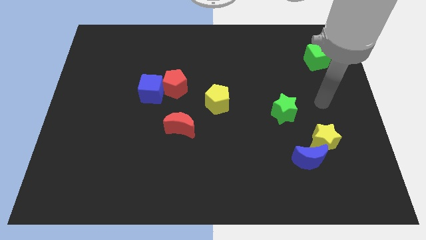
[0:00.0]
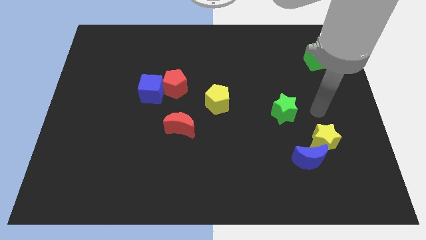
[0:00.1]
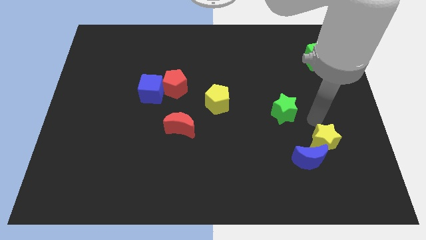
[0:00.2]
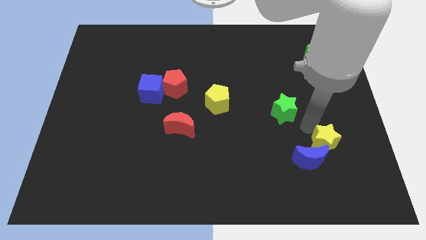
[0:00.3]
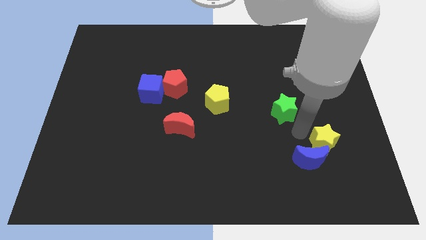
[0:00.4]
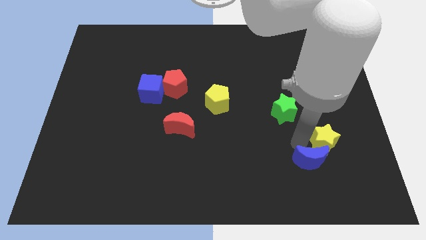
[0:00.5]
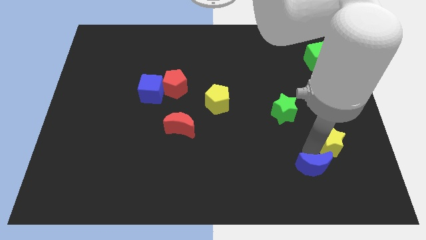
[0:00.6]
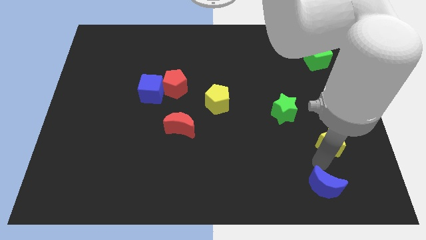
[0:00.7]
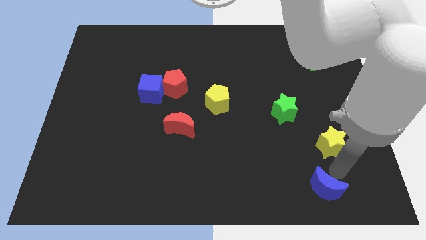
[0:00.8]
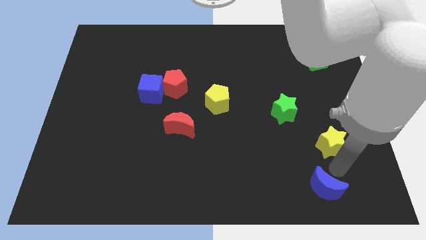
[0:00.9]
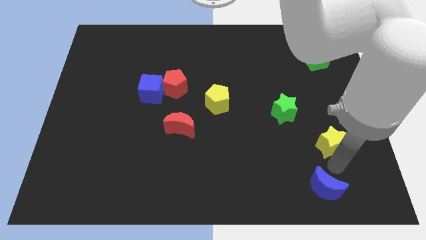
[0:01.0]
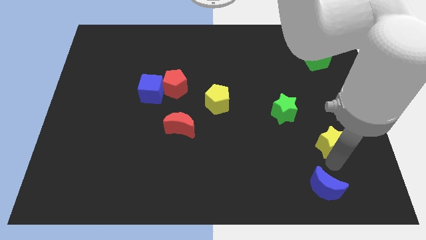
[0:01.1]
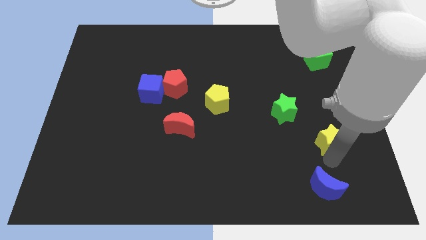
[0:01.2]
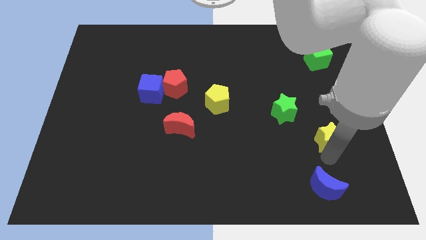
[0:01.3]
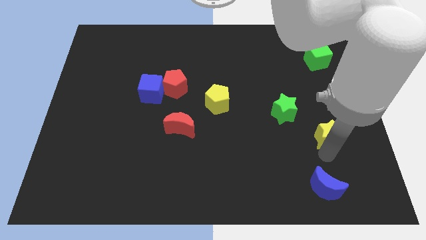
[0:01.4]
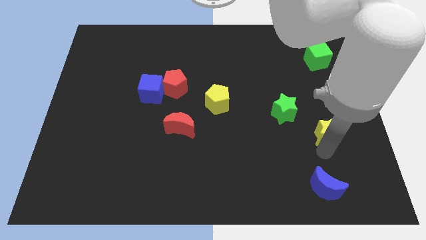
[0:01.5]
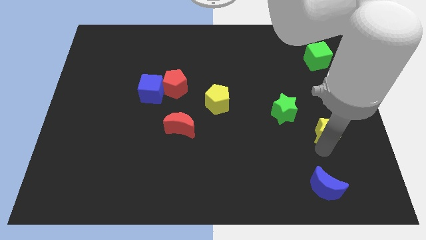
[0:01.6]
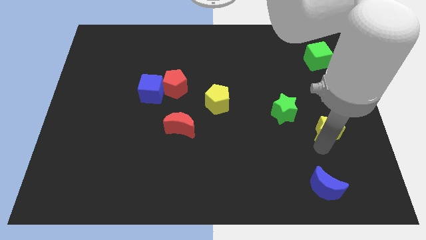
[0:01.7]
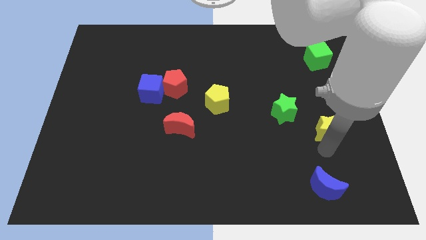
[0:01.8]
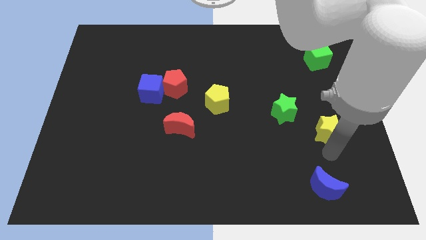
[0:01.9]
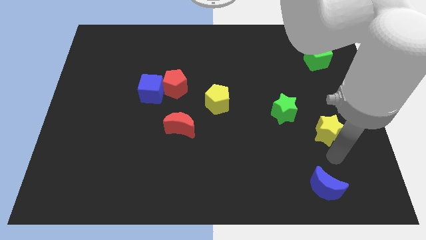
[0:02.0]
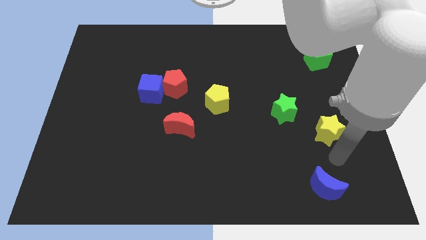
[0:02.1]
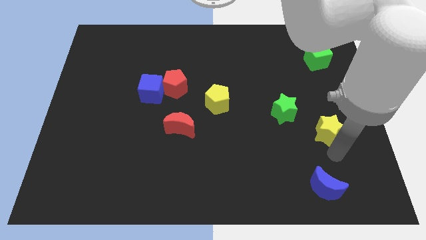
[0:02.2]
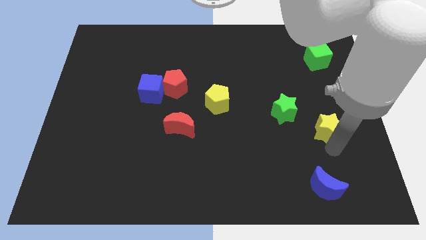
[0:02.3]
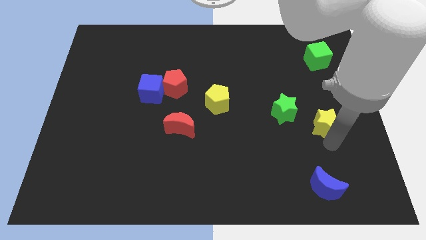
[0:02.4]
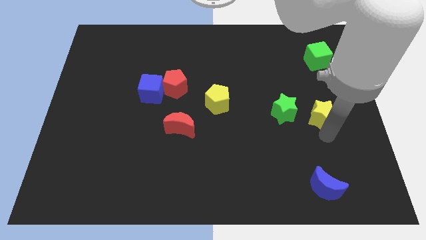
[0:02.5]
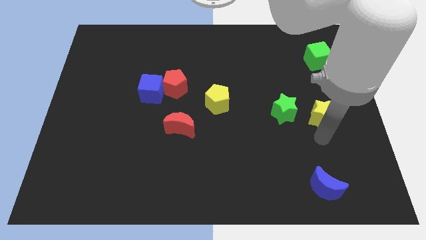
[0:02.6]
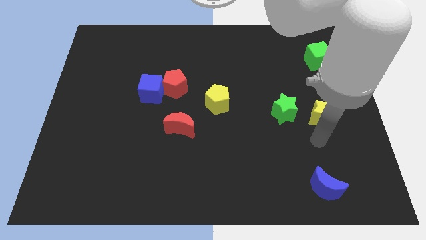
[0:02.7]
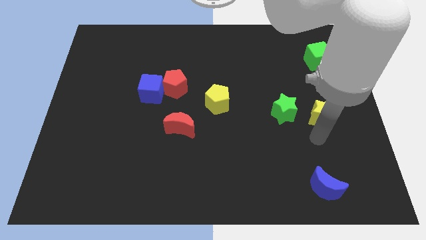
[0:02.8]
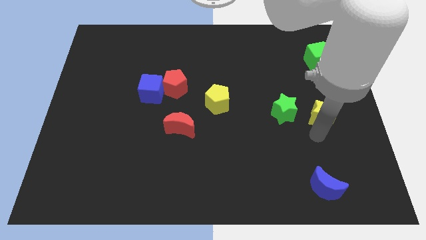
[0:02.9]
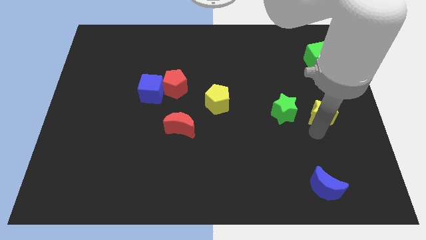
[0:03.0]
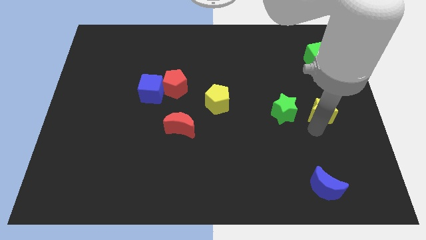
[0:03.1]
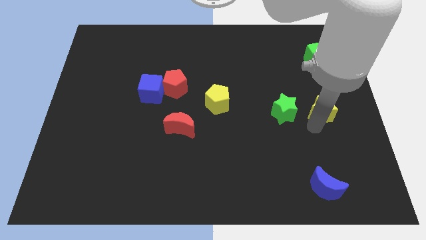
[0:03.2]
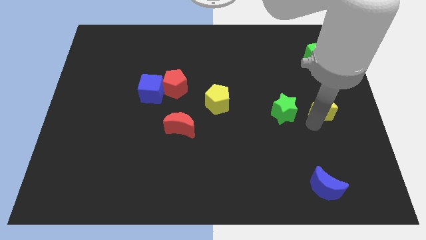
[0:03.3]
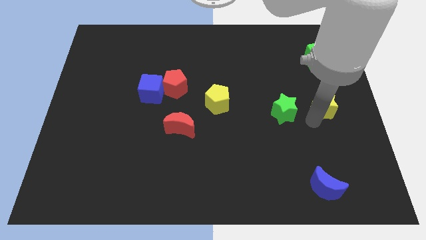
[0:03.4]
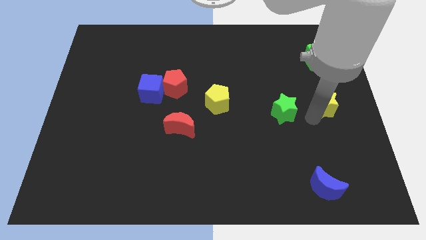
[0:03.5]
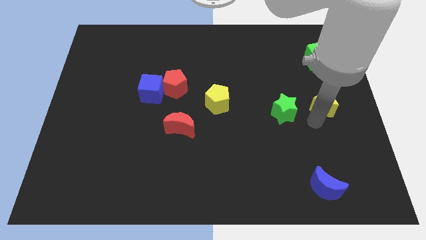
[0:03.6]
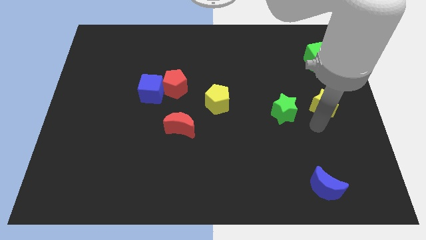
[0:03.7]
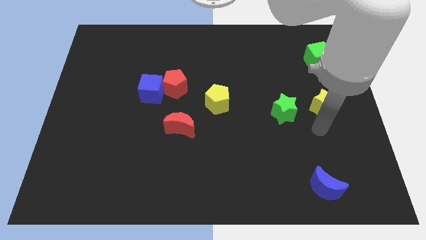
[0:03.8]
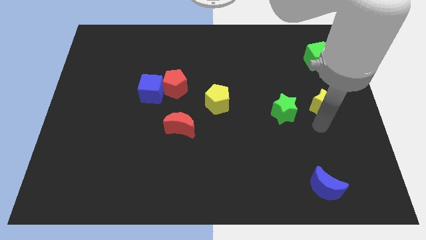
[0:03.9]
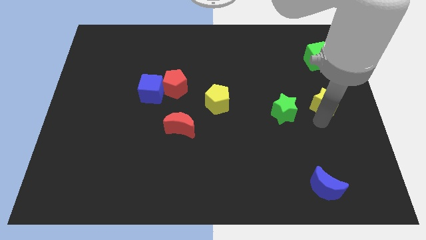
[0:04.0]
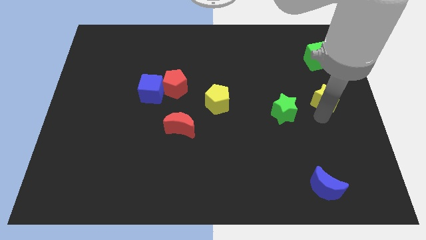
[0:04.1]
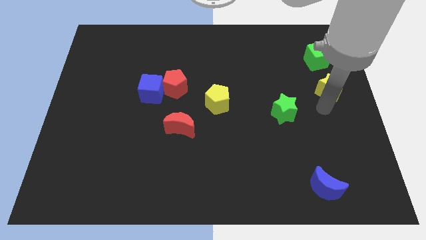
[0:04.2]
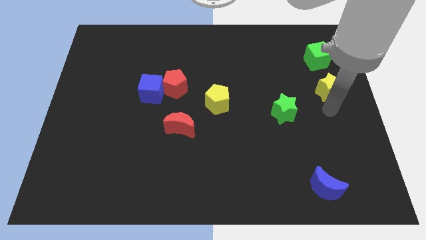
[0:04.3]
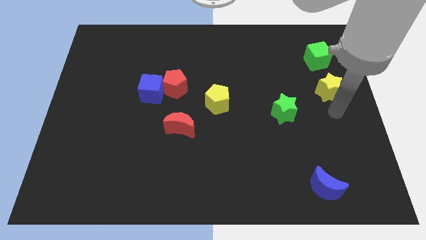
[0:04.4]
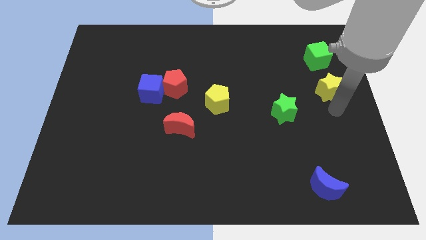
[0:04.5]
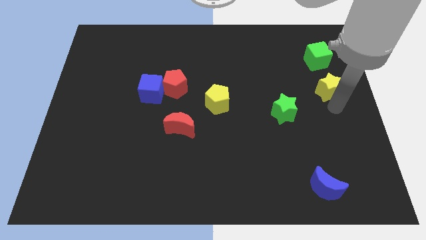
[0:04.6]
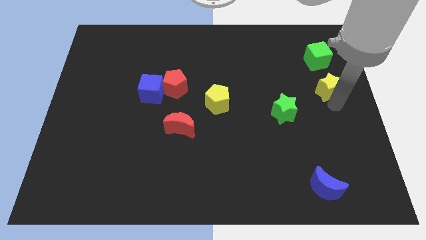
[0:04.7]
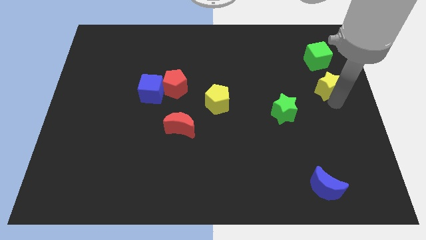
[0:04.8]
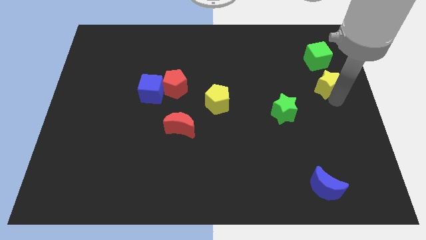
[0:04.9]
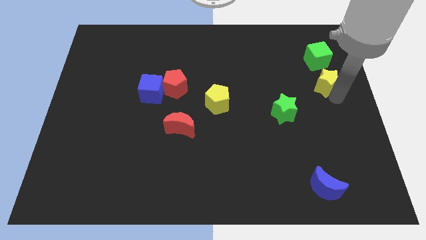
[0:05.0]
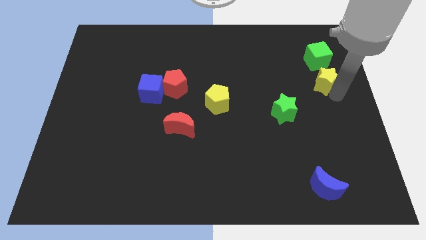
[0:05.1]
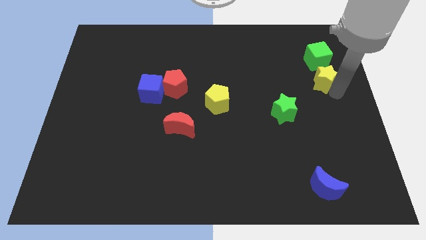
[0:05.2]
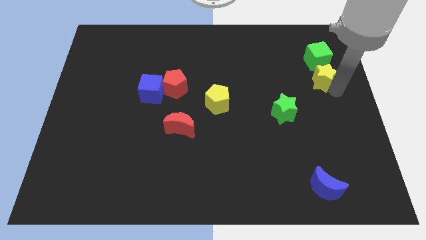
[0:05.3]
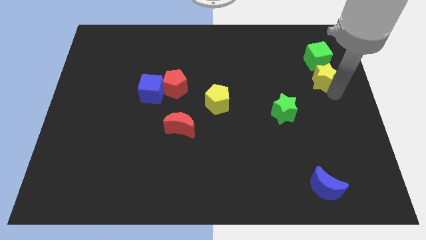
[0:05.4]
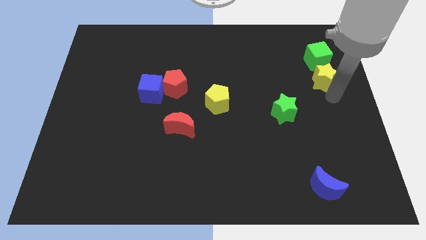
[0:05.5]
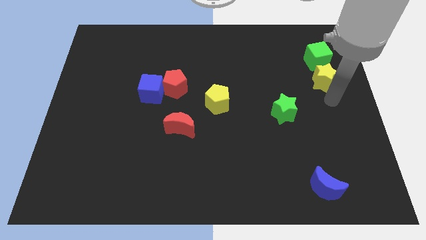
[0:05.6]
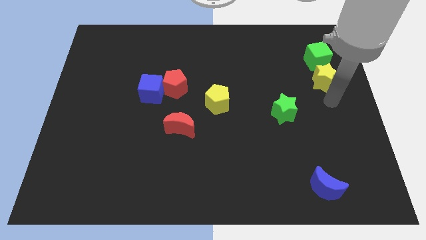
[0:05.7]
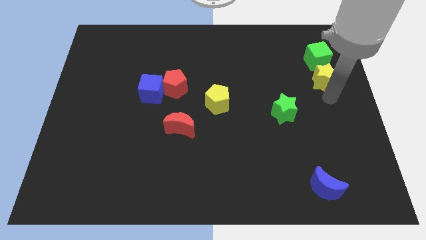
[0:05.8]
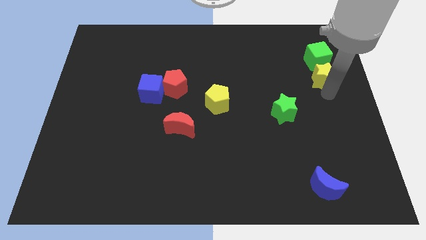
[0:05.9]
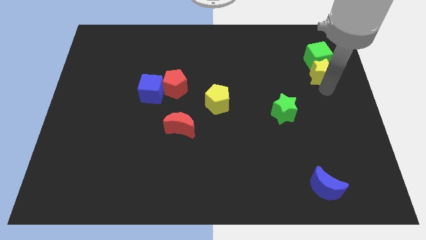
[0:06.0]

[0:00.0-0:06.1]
slide the yellow star towards the green cube
